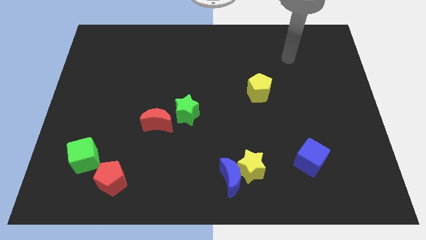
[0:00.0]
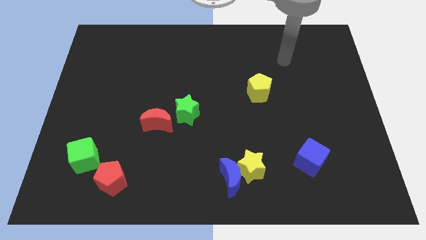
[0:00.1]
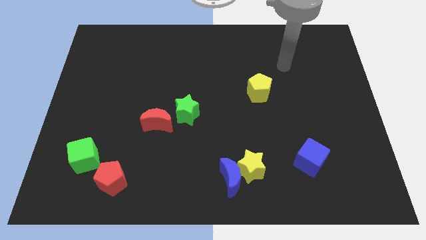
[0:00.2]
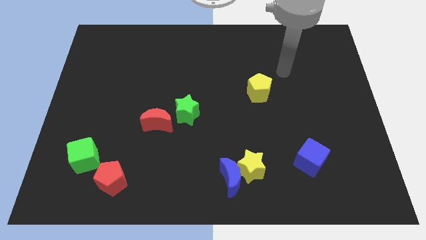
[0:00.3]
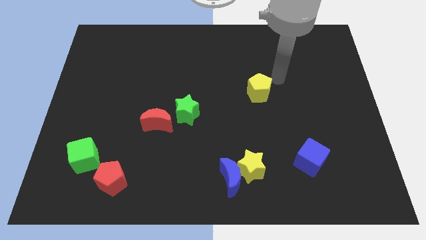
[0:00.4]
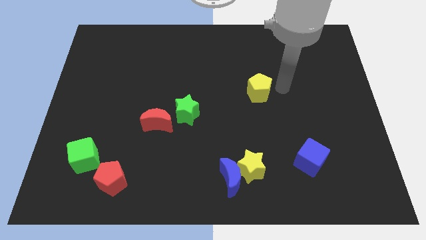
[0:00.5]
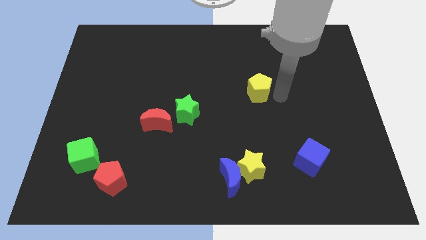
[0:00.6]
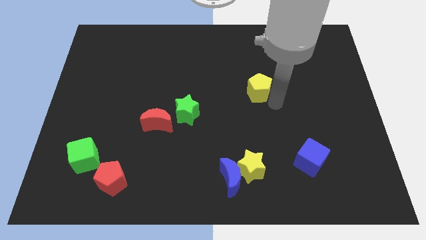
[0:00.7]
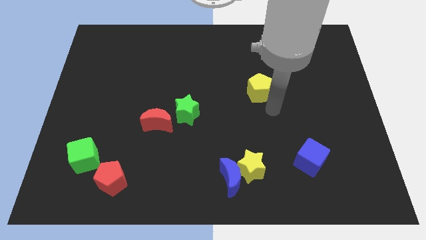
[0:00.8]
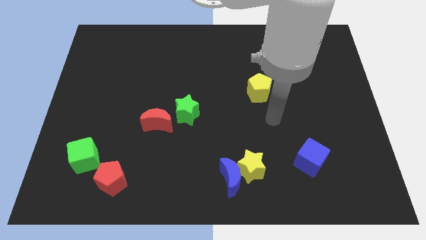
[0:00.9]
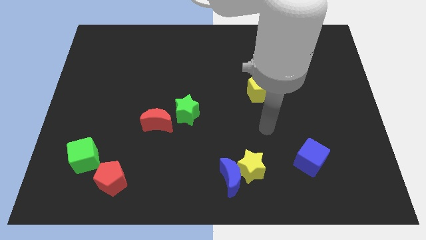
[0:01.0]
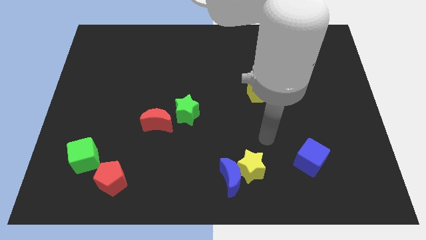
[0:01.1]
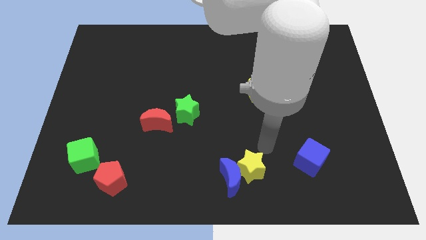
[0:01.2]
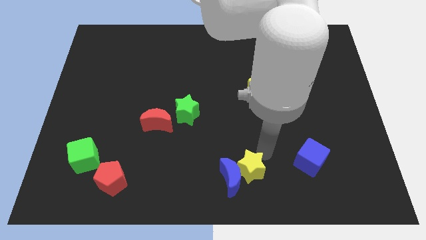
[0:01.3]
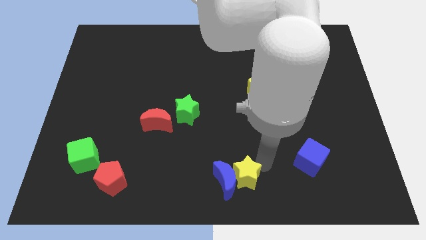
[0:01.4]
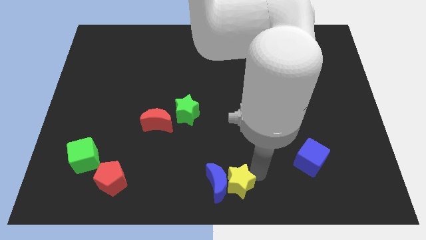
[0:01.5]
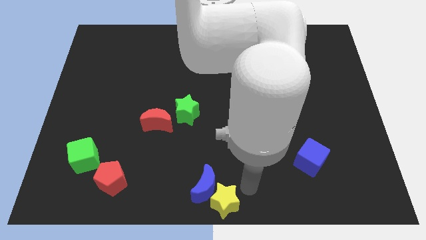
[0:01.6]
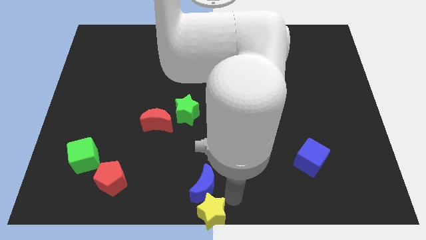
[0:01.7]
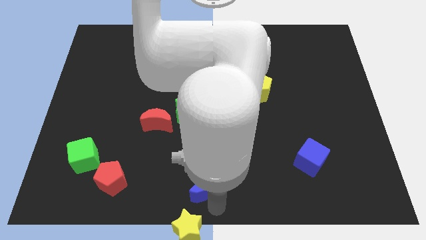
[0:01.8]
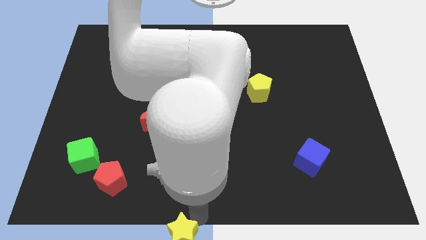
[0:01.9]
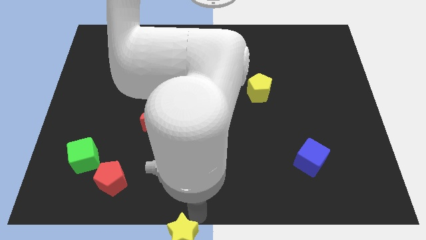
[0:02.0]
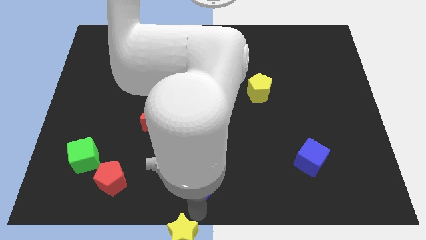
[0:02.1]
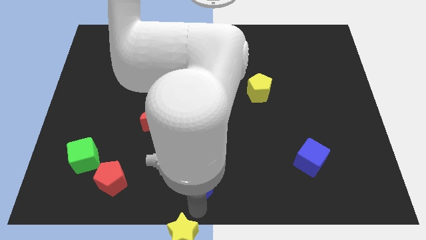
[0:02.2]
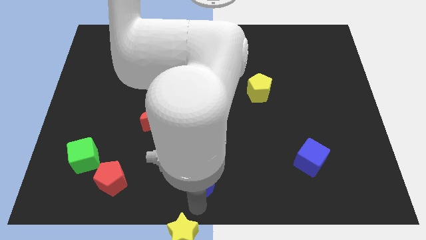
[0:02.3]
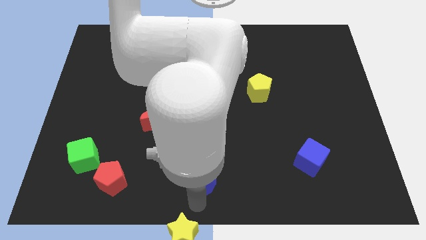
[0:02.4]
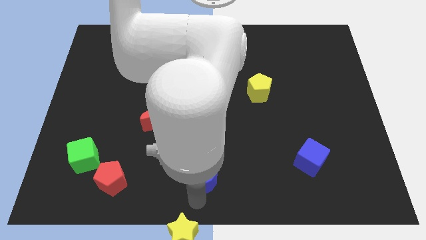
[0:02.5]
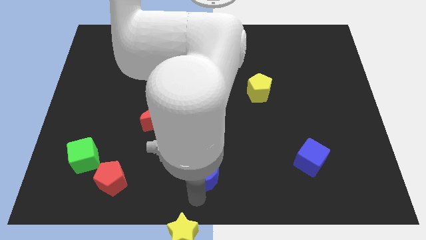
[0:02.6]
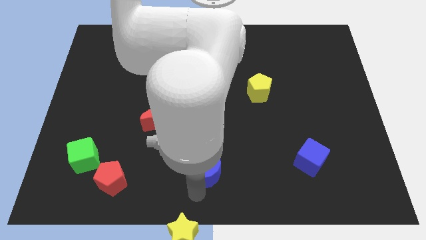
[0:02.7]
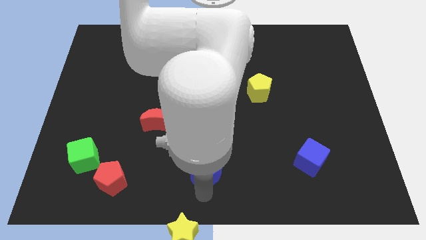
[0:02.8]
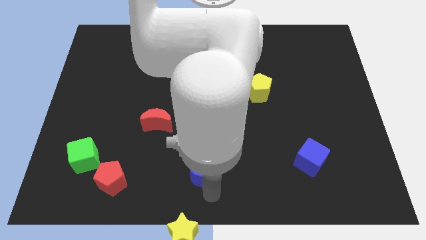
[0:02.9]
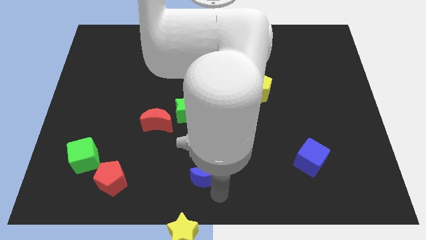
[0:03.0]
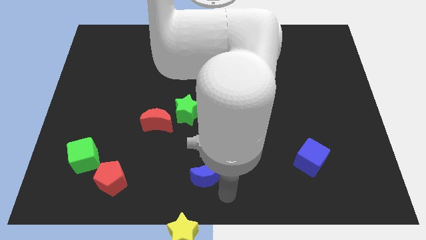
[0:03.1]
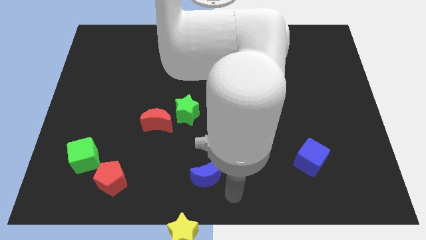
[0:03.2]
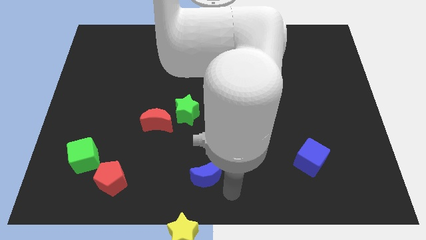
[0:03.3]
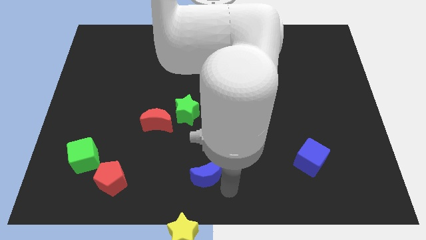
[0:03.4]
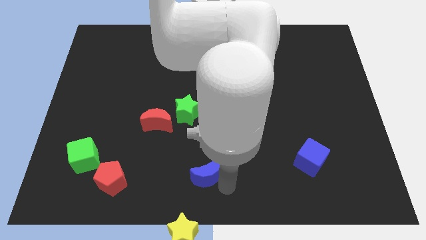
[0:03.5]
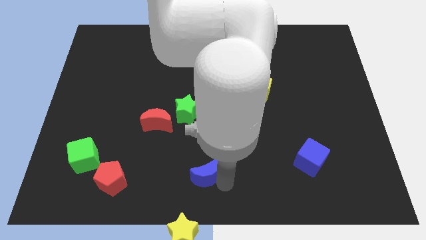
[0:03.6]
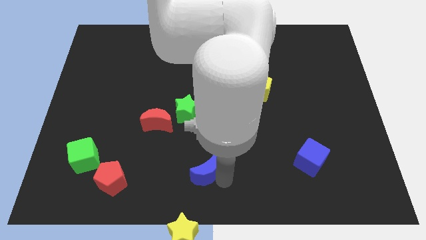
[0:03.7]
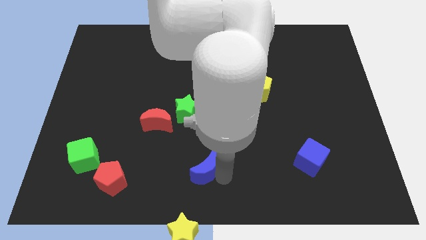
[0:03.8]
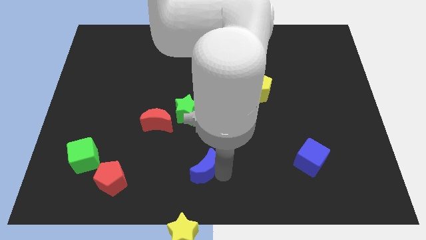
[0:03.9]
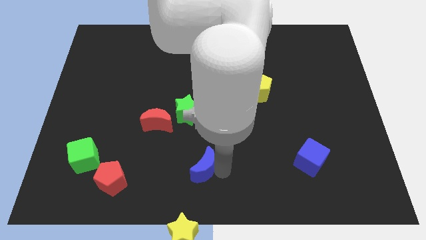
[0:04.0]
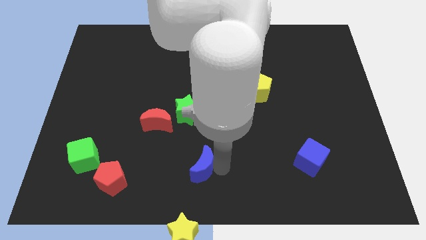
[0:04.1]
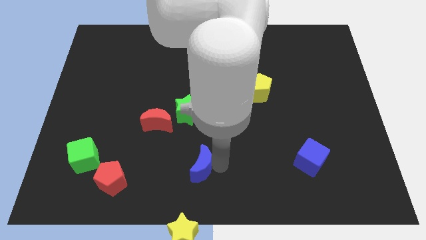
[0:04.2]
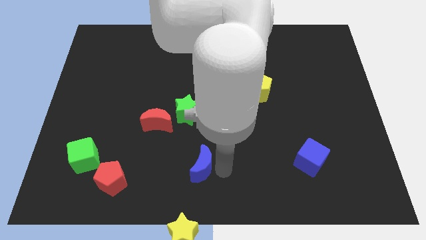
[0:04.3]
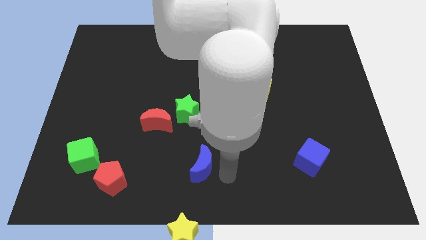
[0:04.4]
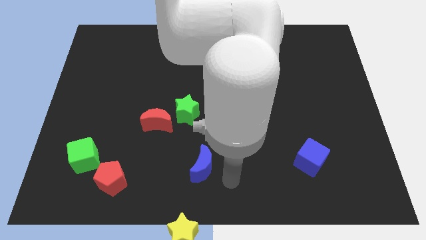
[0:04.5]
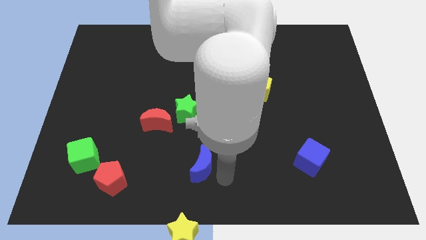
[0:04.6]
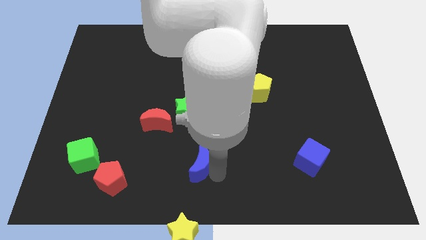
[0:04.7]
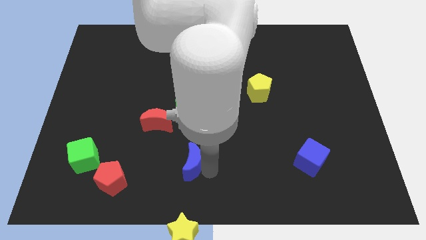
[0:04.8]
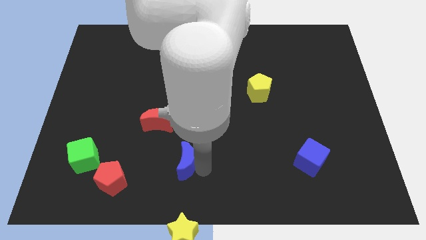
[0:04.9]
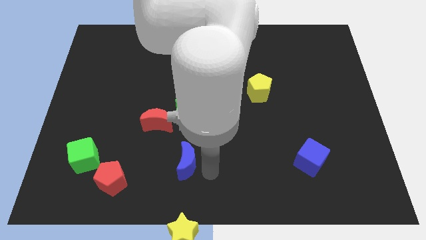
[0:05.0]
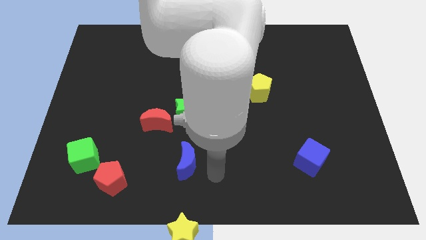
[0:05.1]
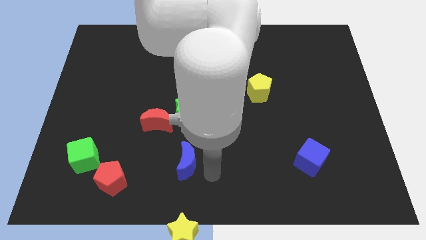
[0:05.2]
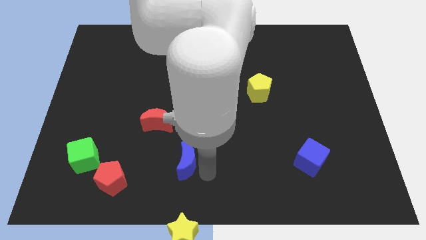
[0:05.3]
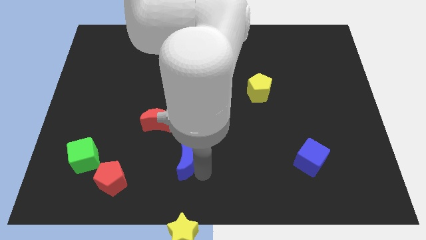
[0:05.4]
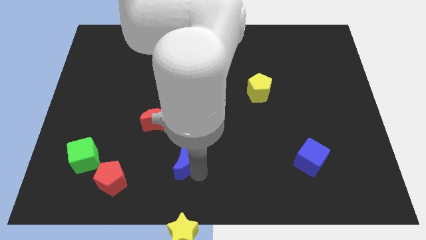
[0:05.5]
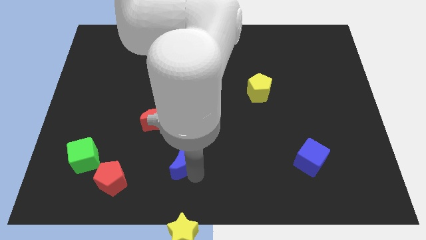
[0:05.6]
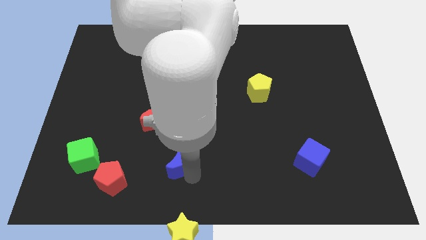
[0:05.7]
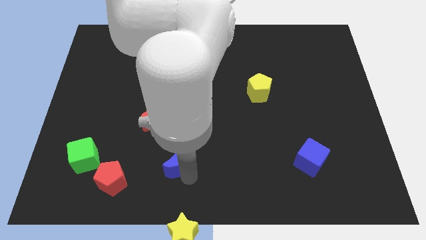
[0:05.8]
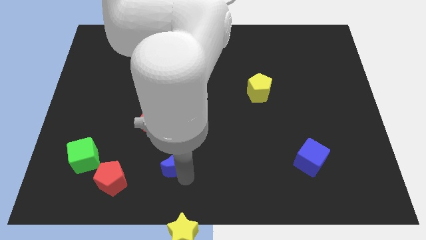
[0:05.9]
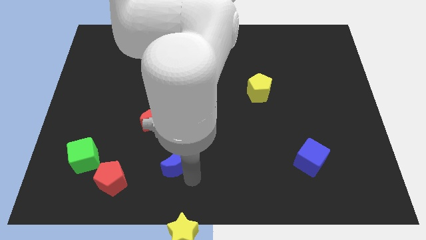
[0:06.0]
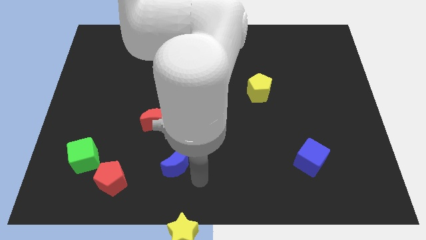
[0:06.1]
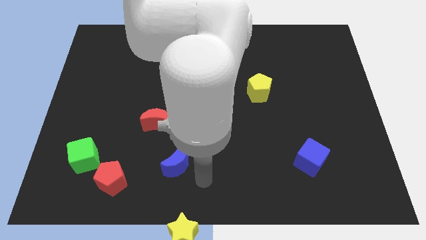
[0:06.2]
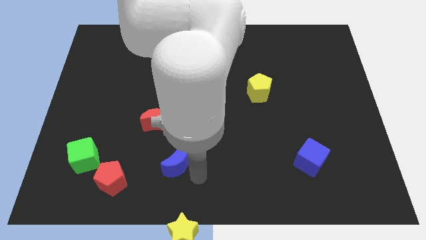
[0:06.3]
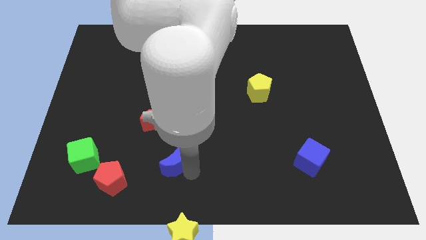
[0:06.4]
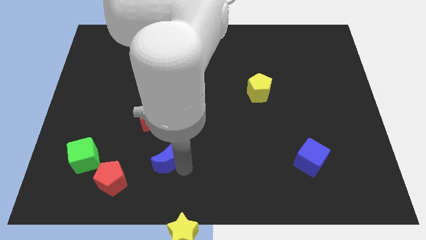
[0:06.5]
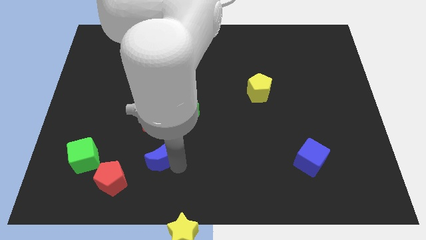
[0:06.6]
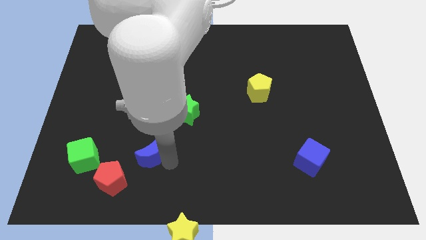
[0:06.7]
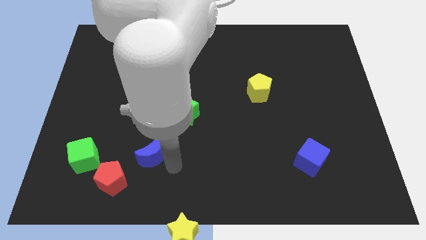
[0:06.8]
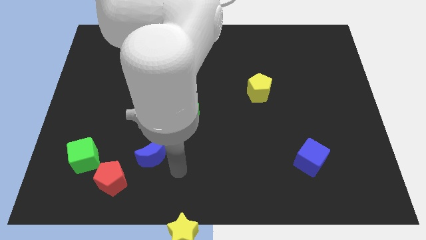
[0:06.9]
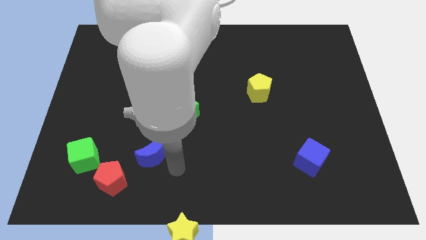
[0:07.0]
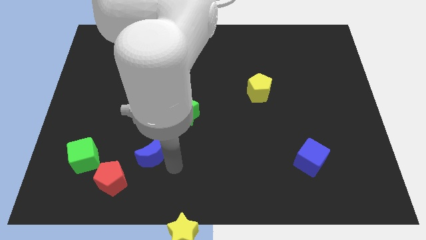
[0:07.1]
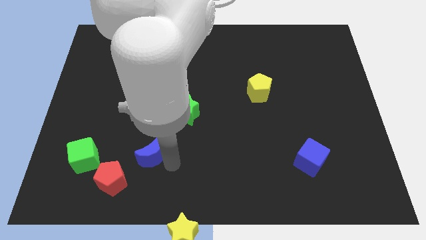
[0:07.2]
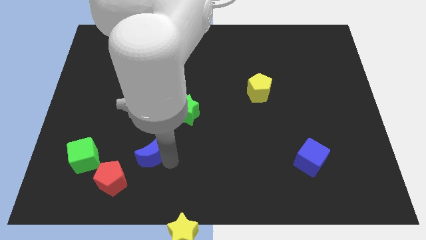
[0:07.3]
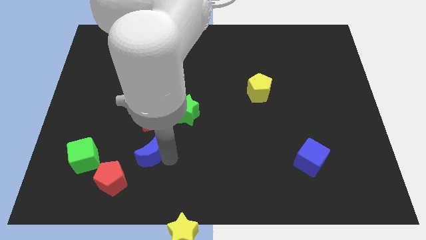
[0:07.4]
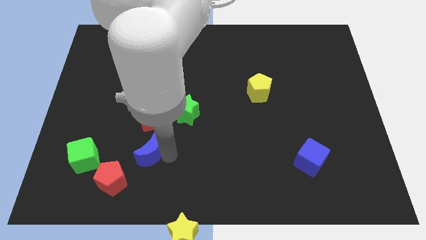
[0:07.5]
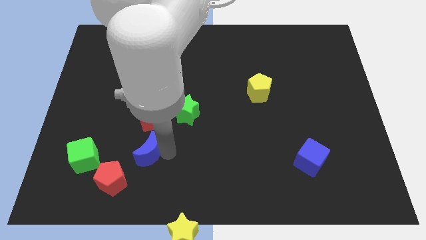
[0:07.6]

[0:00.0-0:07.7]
push the blue moon to the bottom left side of the red moon

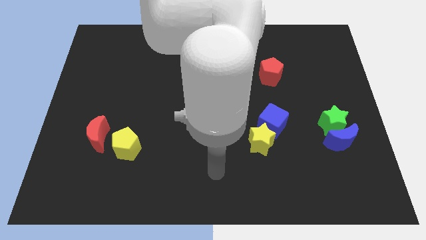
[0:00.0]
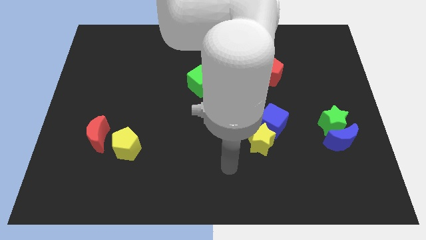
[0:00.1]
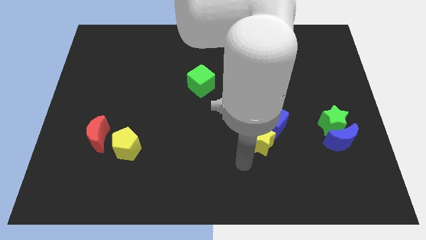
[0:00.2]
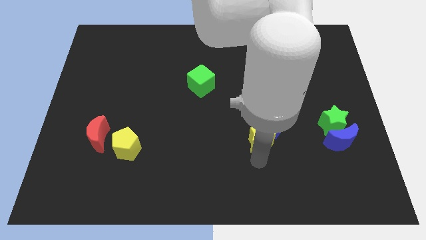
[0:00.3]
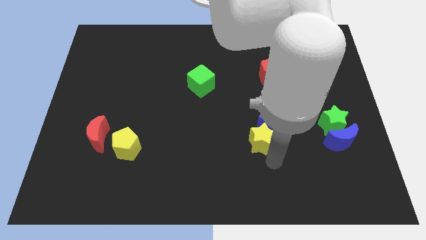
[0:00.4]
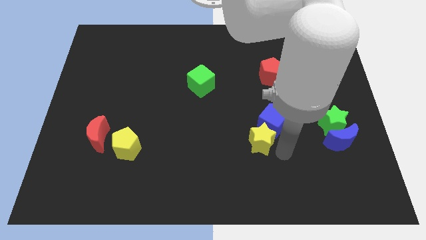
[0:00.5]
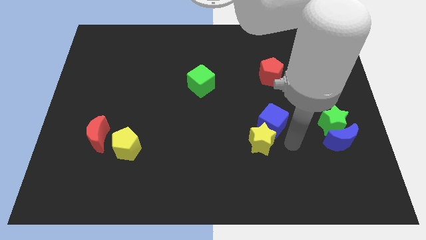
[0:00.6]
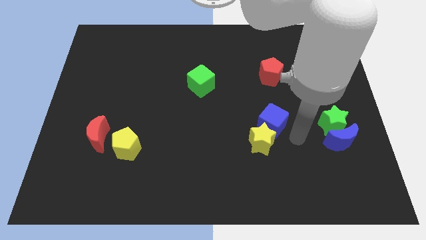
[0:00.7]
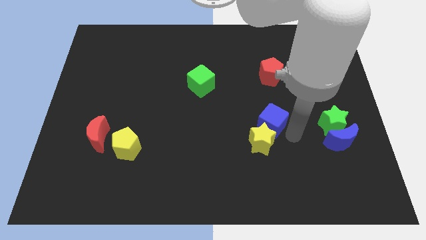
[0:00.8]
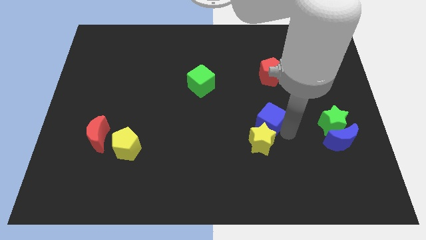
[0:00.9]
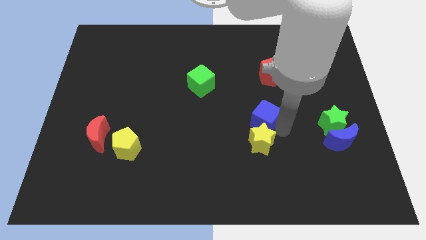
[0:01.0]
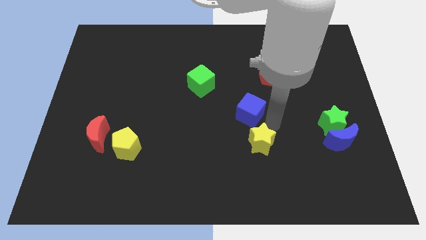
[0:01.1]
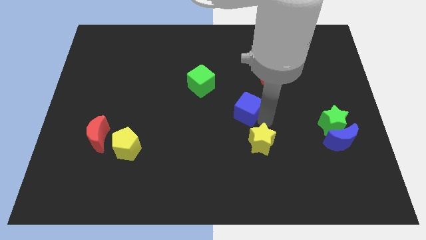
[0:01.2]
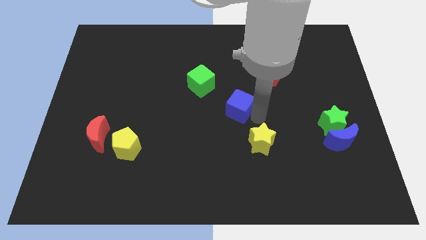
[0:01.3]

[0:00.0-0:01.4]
move the blue cube to the bottom right of the green cube
